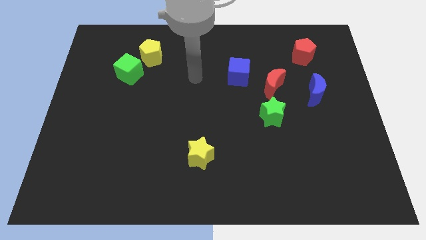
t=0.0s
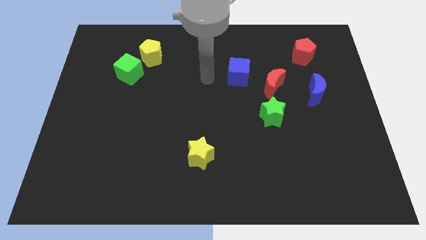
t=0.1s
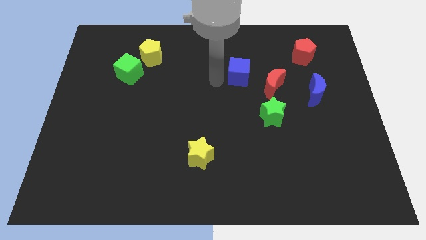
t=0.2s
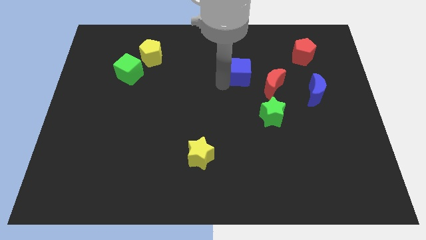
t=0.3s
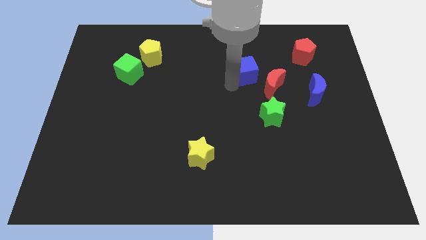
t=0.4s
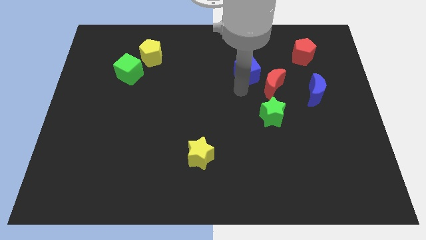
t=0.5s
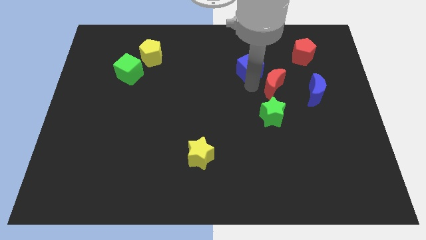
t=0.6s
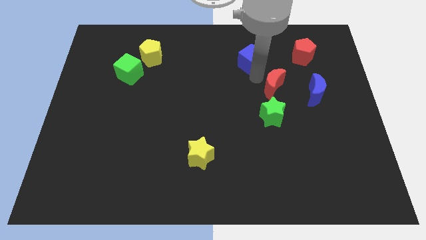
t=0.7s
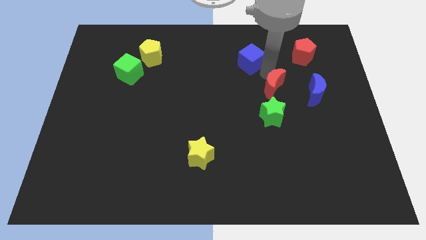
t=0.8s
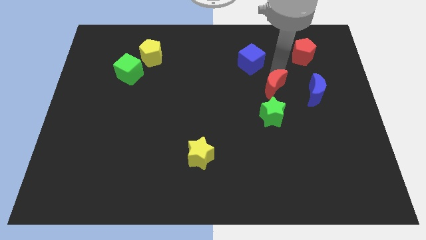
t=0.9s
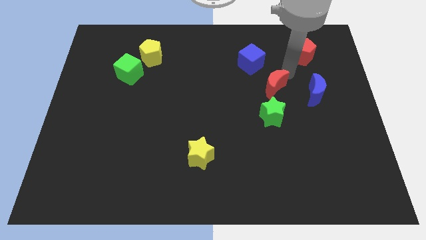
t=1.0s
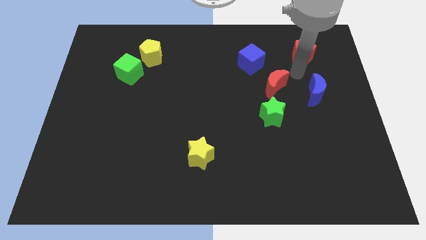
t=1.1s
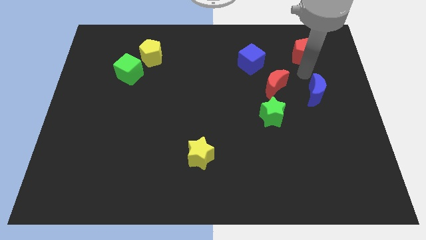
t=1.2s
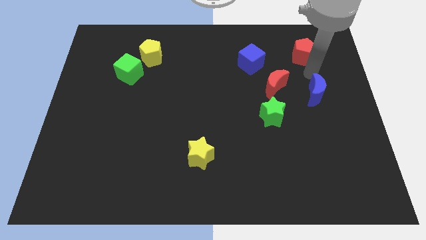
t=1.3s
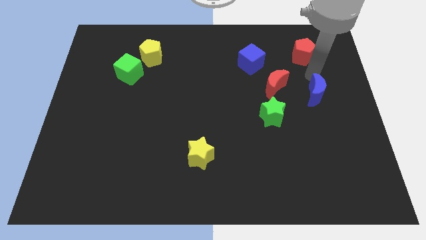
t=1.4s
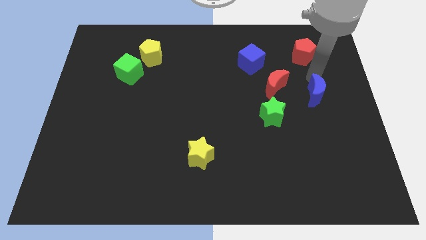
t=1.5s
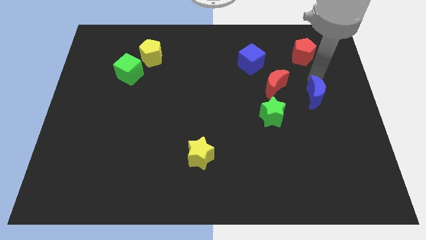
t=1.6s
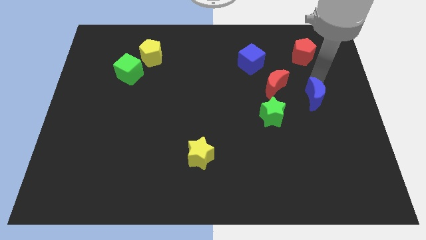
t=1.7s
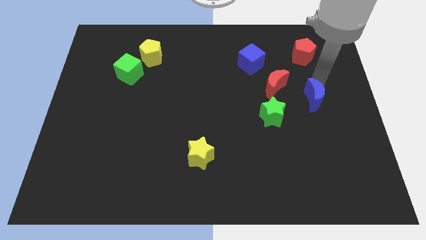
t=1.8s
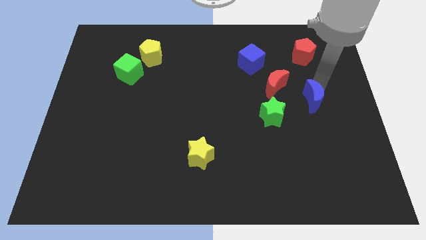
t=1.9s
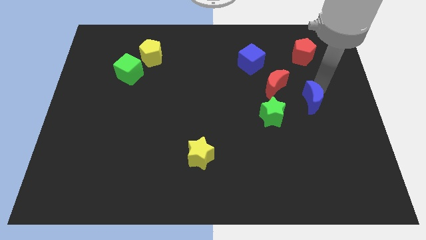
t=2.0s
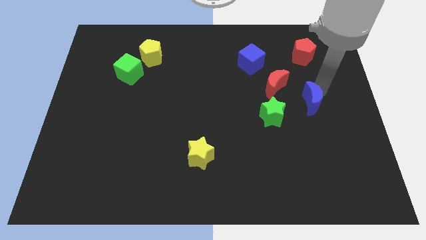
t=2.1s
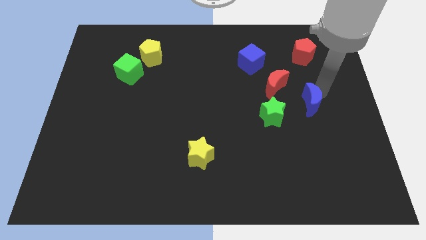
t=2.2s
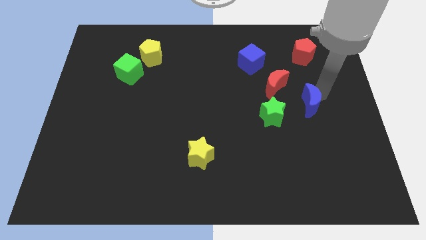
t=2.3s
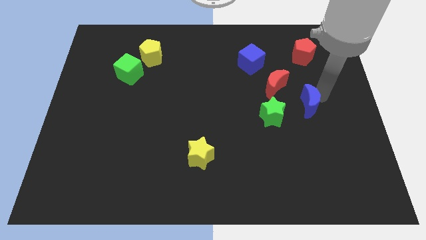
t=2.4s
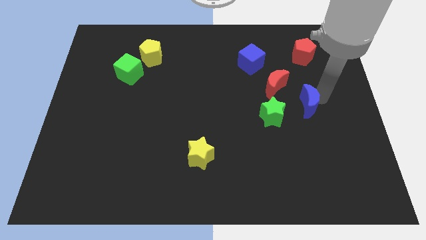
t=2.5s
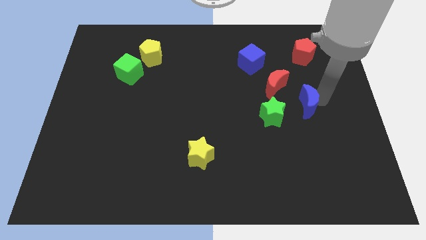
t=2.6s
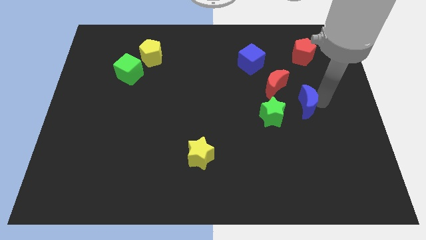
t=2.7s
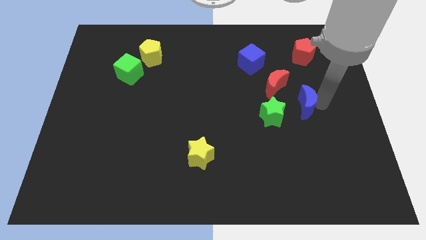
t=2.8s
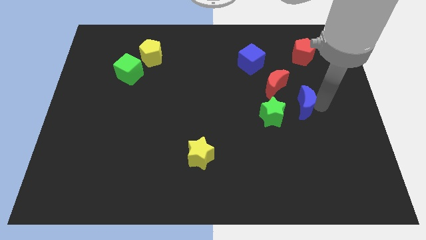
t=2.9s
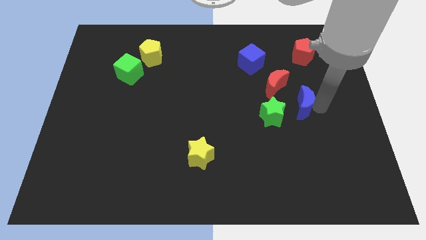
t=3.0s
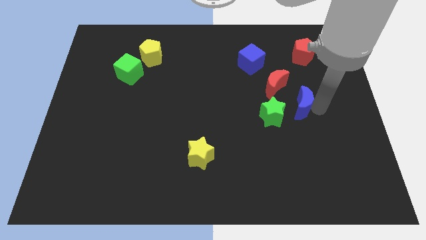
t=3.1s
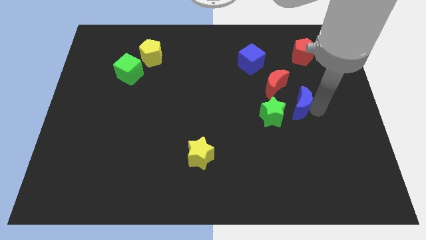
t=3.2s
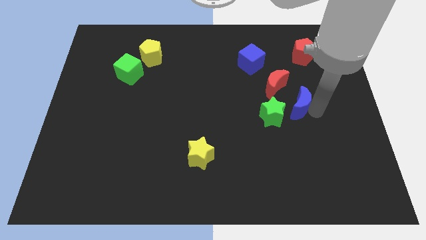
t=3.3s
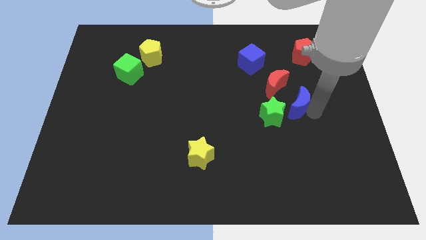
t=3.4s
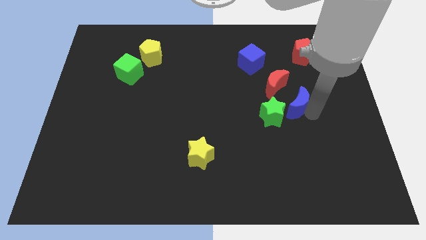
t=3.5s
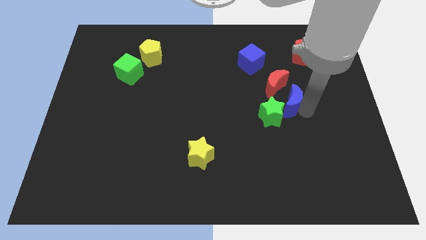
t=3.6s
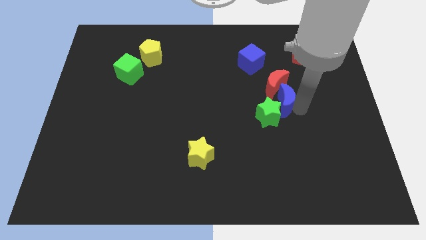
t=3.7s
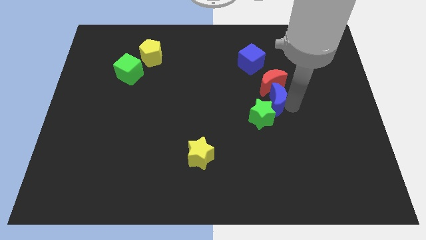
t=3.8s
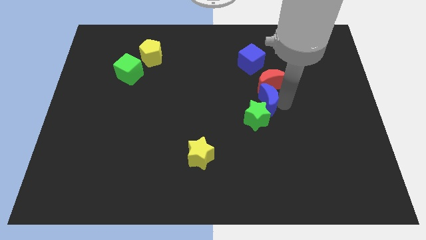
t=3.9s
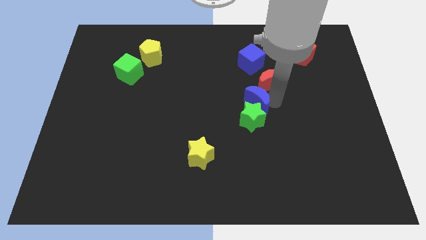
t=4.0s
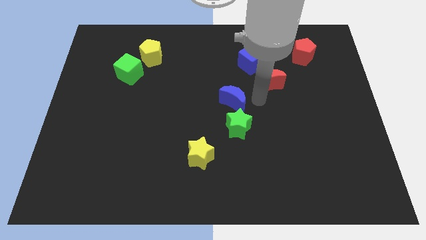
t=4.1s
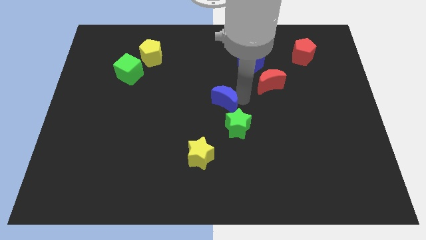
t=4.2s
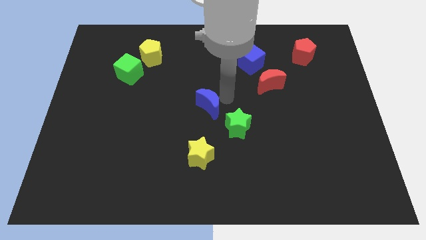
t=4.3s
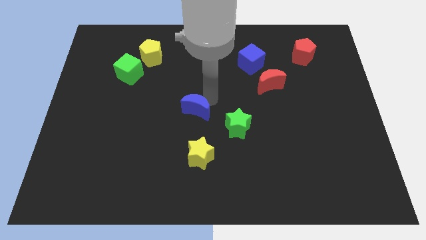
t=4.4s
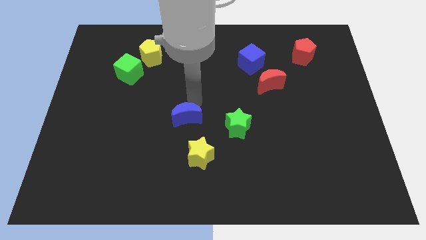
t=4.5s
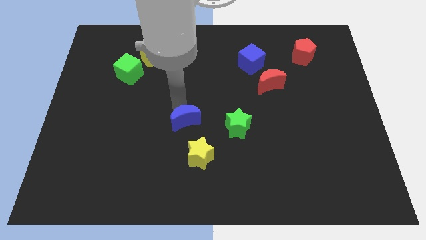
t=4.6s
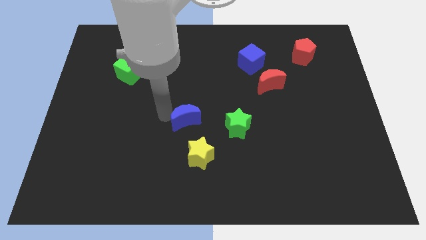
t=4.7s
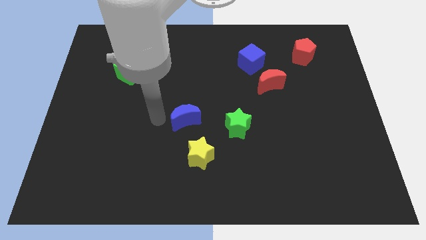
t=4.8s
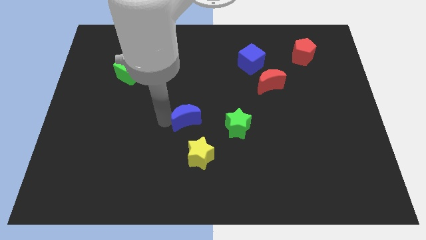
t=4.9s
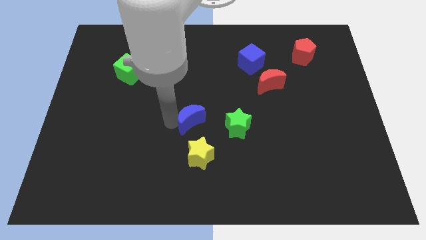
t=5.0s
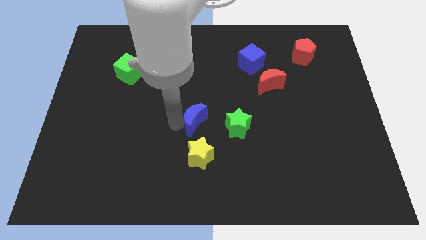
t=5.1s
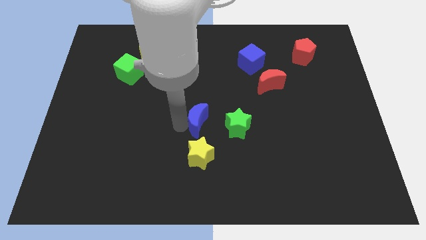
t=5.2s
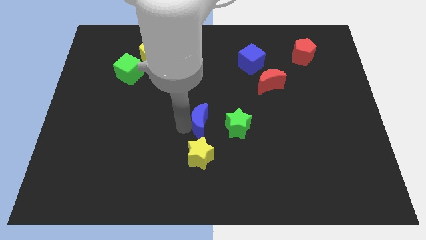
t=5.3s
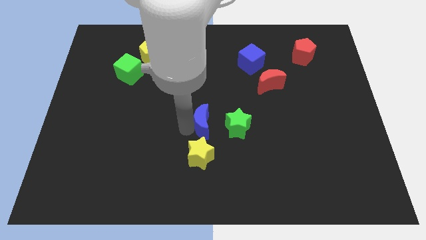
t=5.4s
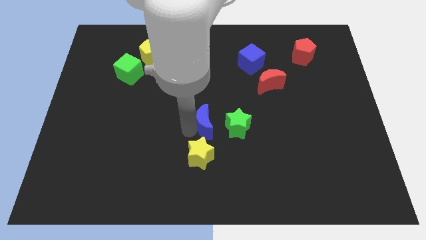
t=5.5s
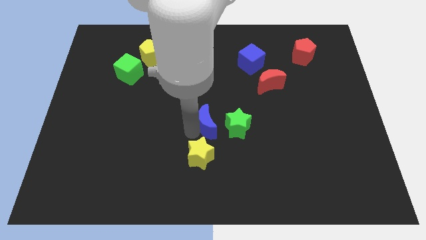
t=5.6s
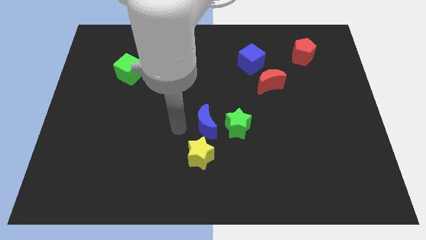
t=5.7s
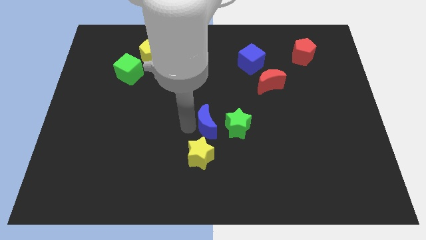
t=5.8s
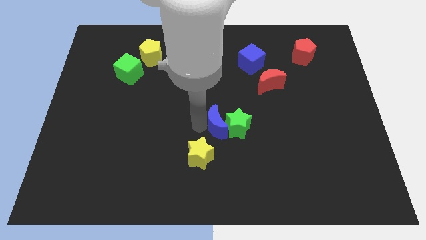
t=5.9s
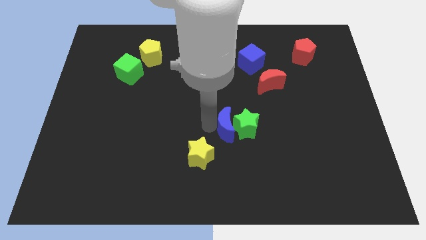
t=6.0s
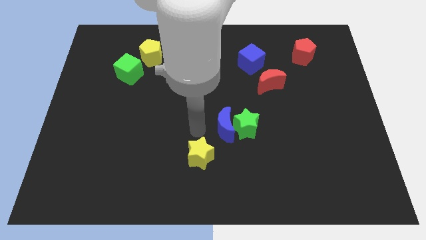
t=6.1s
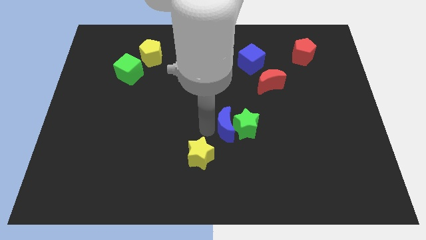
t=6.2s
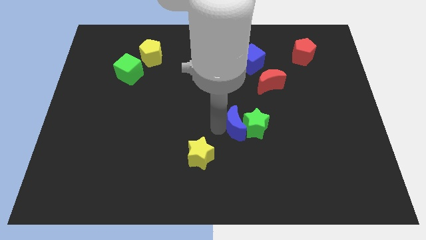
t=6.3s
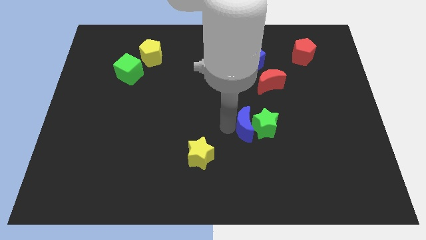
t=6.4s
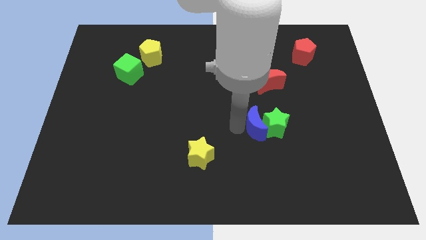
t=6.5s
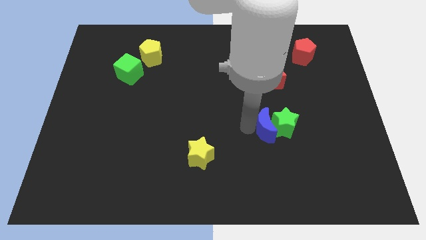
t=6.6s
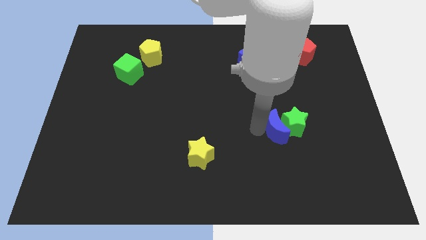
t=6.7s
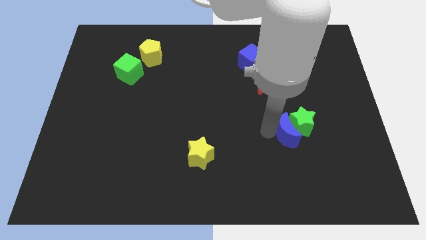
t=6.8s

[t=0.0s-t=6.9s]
slightly slide the blue moon down

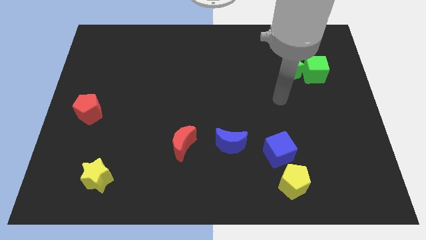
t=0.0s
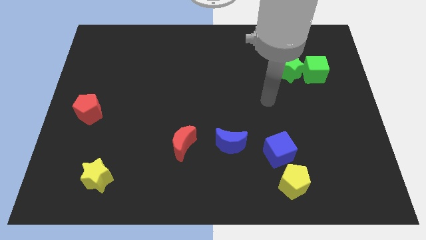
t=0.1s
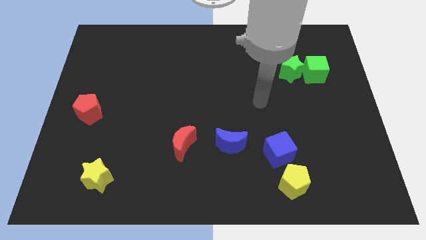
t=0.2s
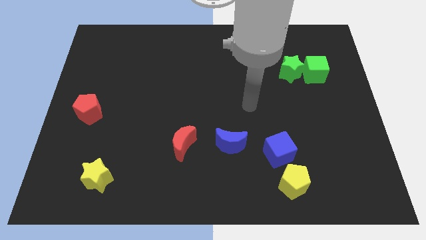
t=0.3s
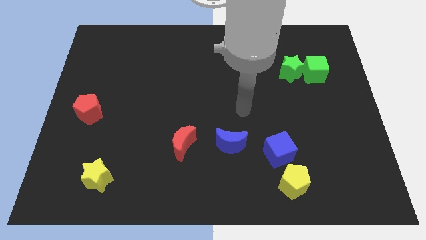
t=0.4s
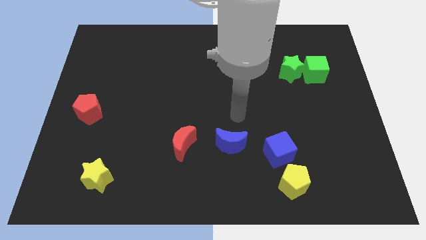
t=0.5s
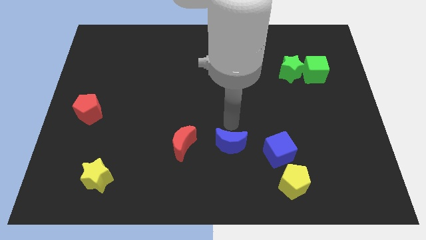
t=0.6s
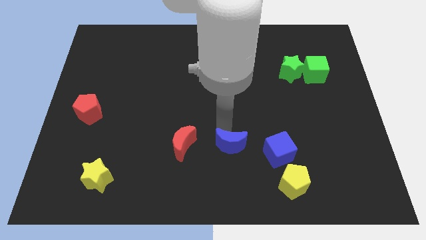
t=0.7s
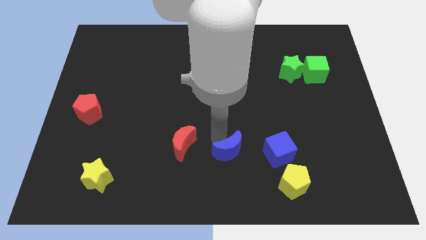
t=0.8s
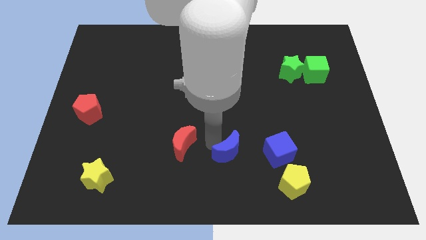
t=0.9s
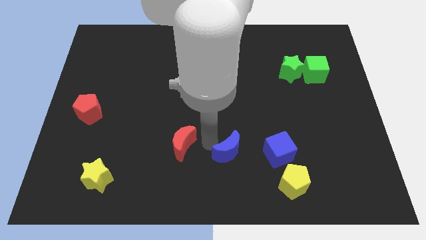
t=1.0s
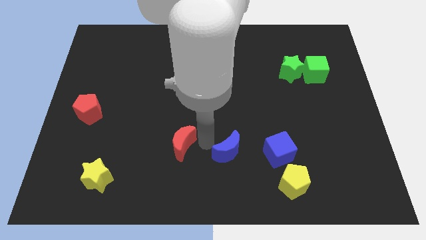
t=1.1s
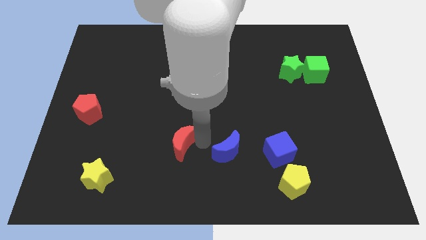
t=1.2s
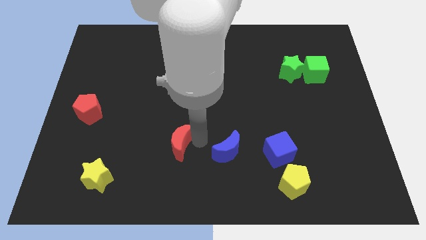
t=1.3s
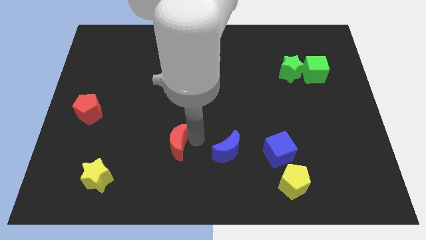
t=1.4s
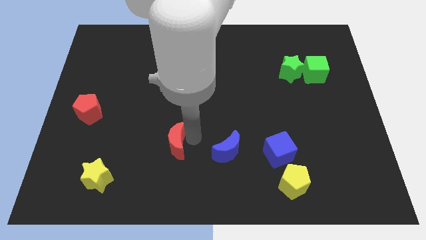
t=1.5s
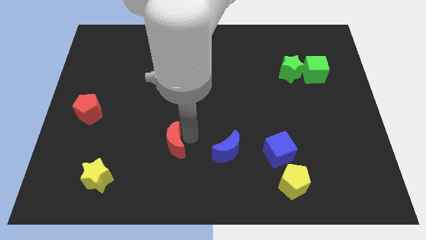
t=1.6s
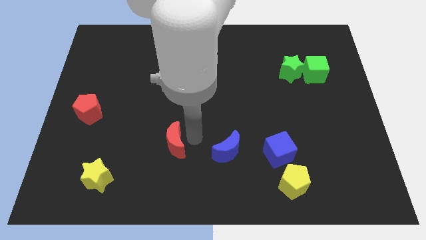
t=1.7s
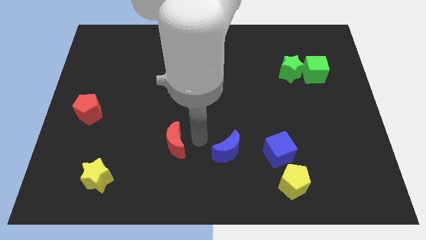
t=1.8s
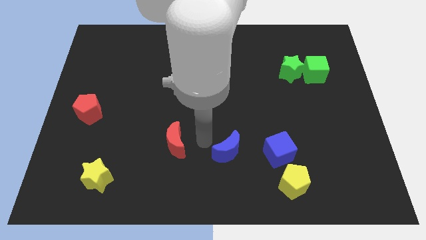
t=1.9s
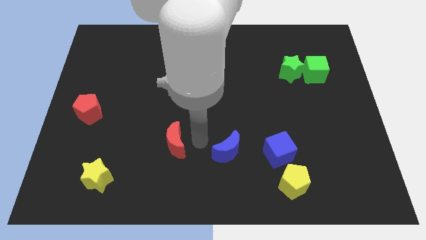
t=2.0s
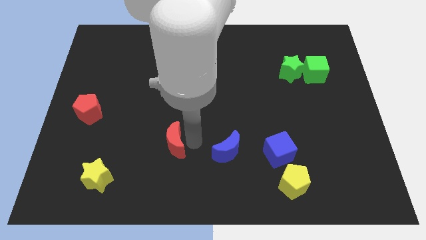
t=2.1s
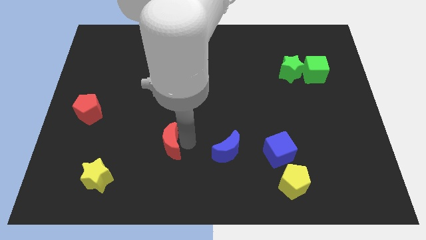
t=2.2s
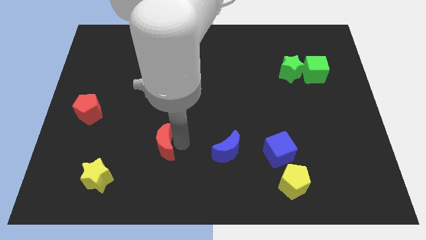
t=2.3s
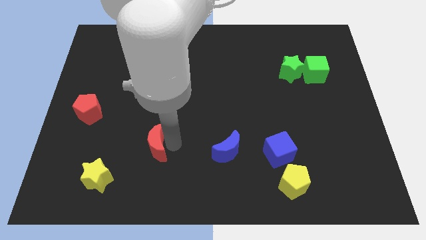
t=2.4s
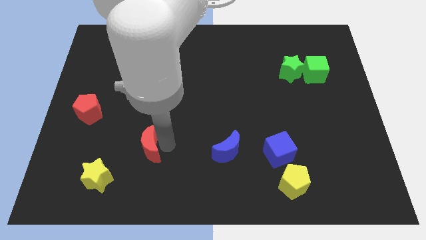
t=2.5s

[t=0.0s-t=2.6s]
slightly slide the red moon to the left
